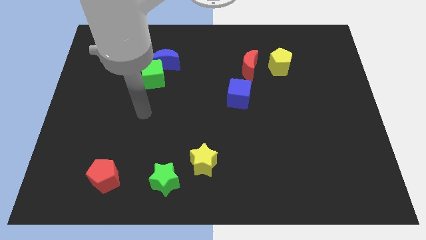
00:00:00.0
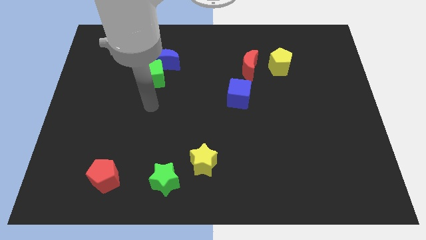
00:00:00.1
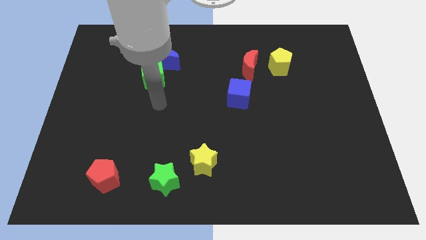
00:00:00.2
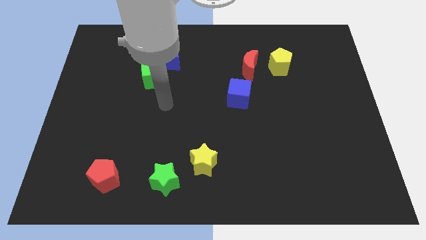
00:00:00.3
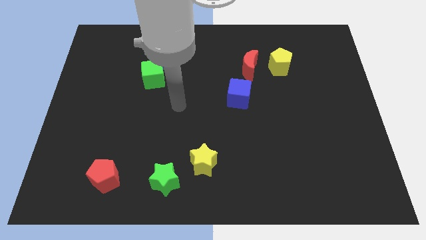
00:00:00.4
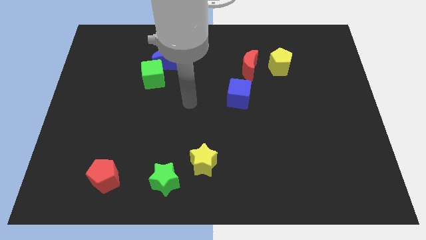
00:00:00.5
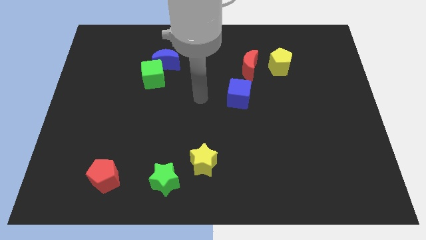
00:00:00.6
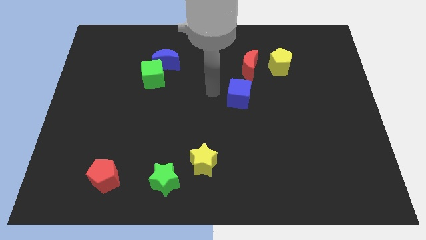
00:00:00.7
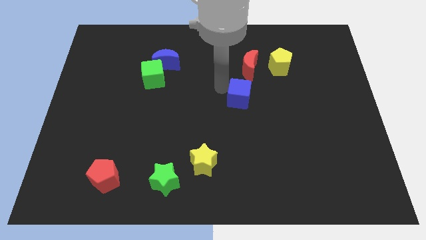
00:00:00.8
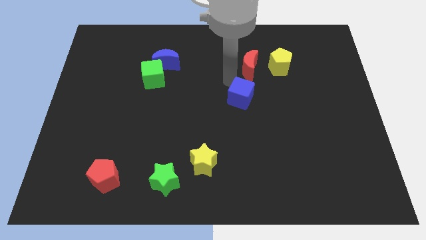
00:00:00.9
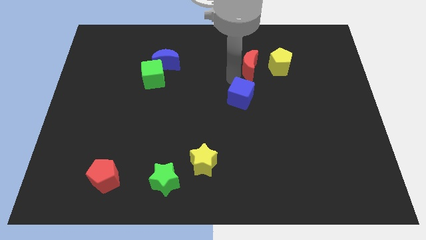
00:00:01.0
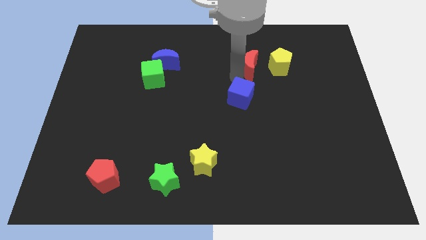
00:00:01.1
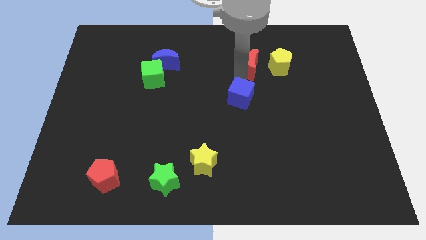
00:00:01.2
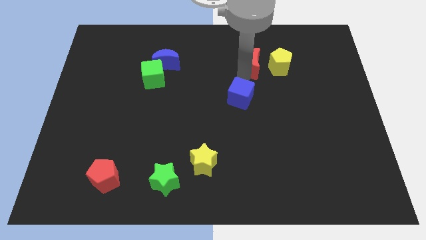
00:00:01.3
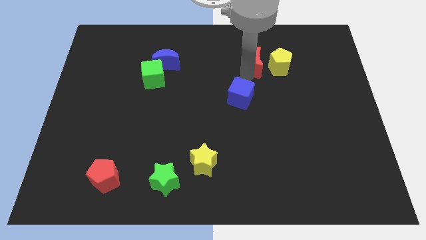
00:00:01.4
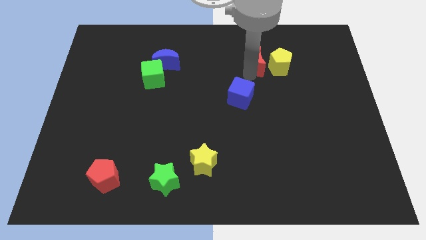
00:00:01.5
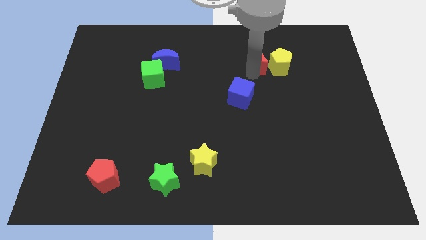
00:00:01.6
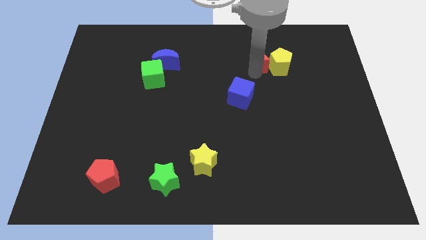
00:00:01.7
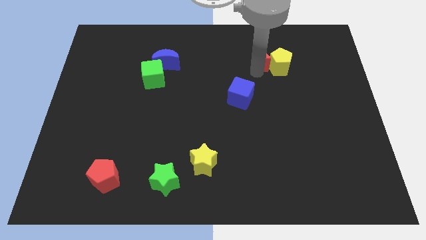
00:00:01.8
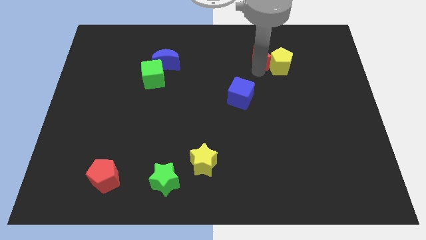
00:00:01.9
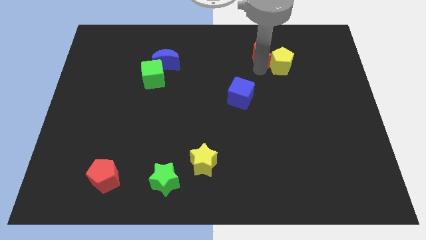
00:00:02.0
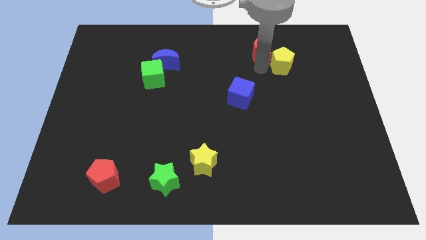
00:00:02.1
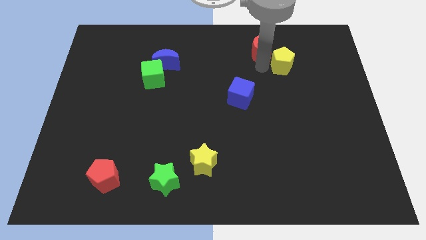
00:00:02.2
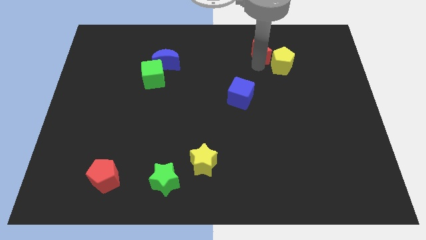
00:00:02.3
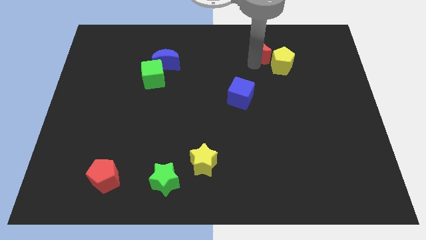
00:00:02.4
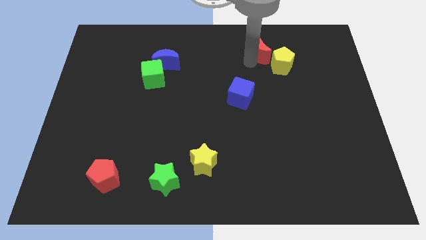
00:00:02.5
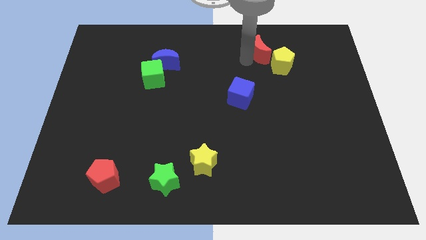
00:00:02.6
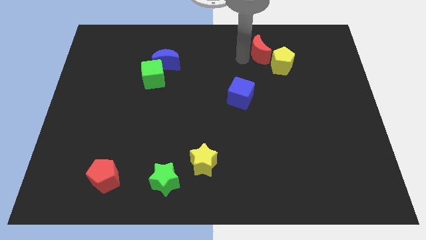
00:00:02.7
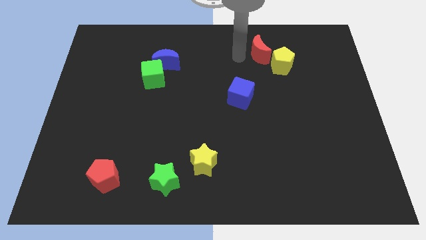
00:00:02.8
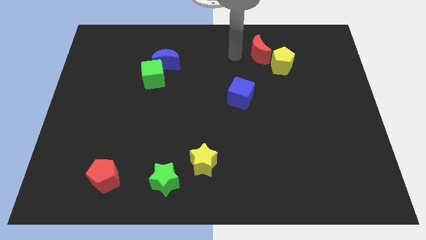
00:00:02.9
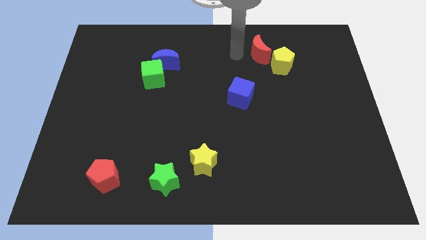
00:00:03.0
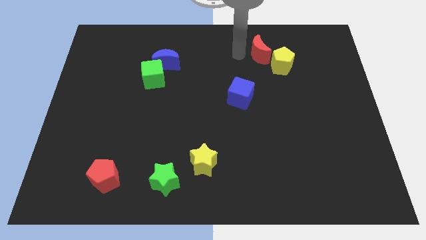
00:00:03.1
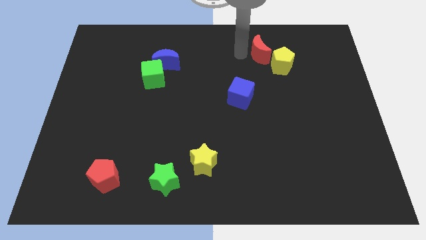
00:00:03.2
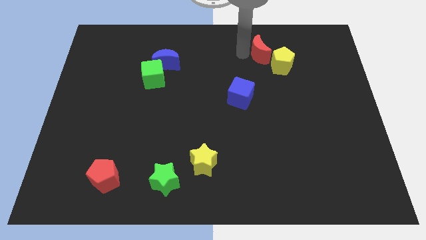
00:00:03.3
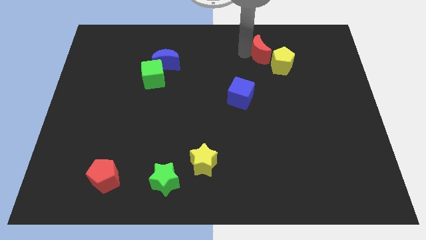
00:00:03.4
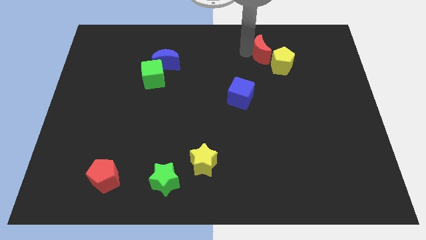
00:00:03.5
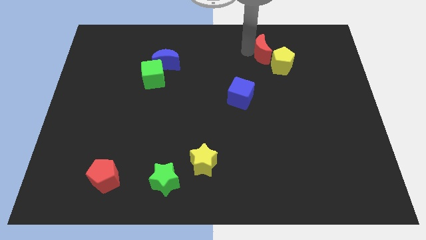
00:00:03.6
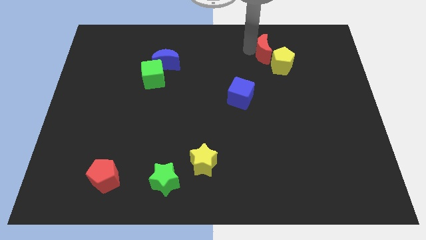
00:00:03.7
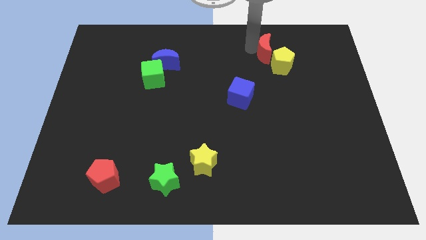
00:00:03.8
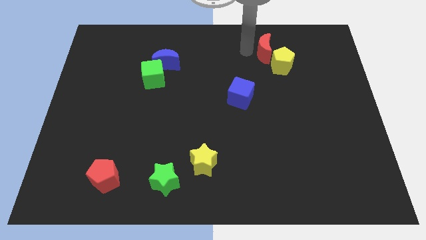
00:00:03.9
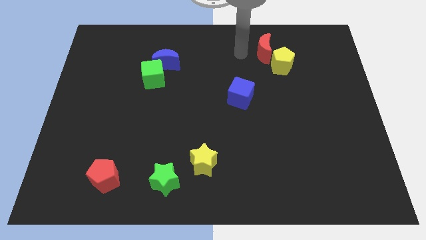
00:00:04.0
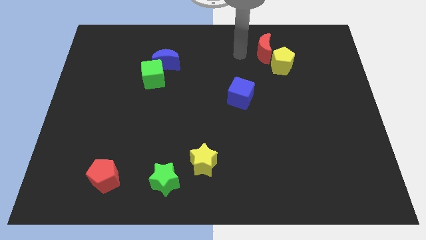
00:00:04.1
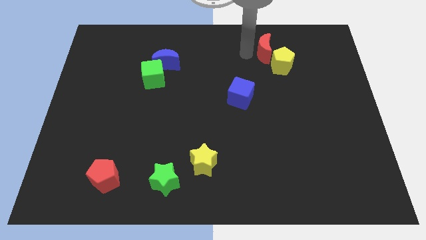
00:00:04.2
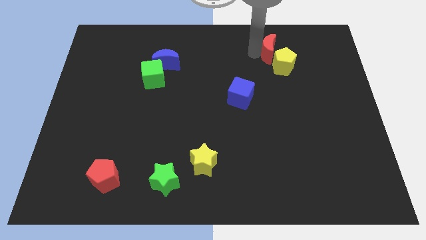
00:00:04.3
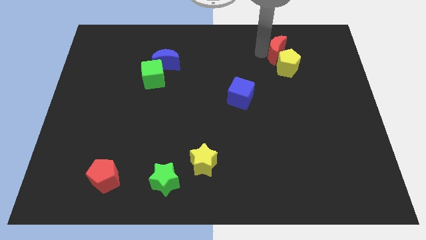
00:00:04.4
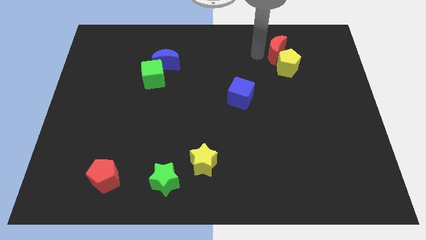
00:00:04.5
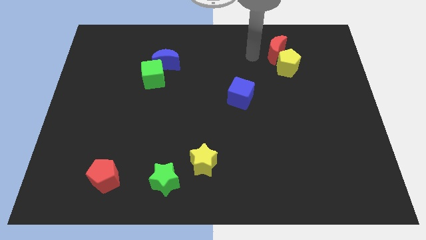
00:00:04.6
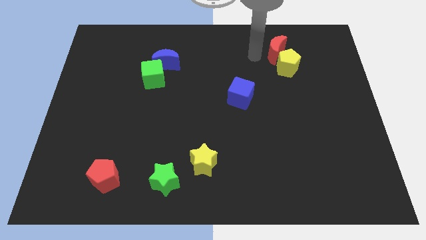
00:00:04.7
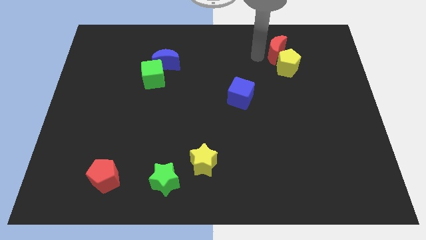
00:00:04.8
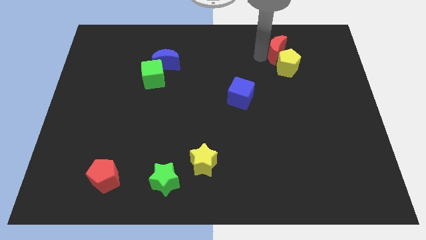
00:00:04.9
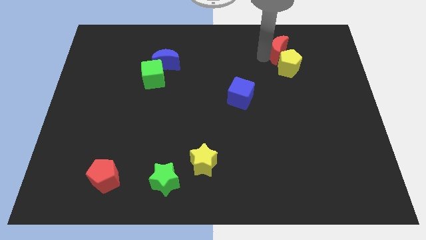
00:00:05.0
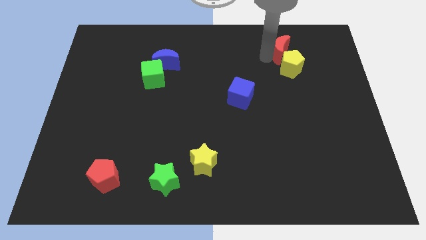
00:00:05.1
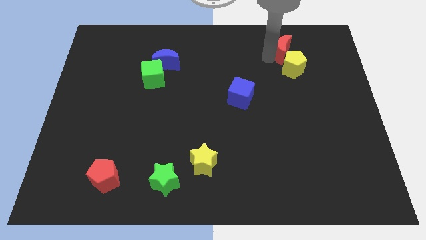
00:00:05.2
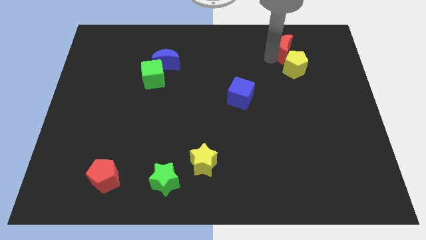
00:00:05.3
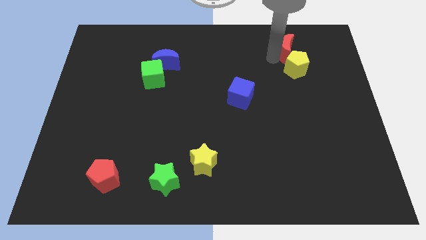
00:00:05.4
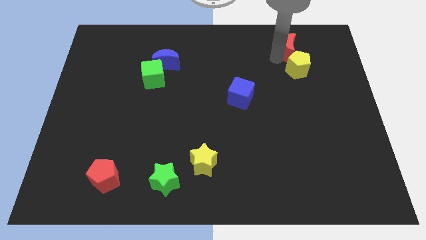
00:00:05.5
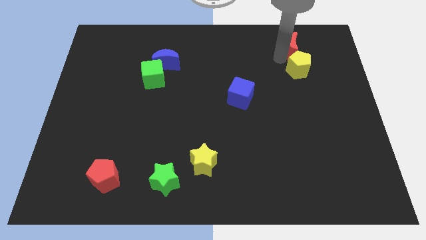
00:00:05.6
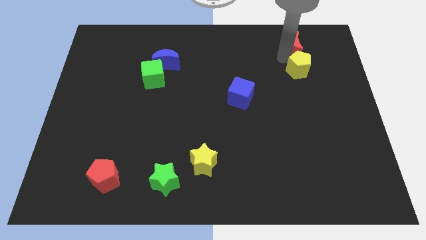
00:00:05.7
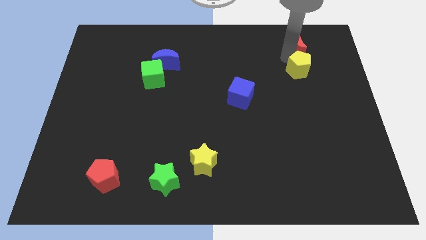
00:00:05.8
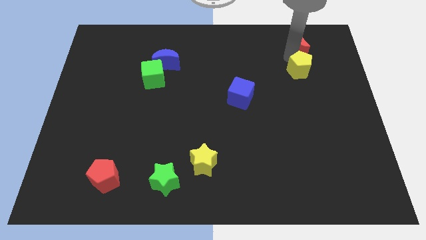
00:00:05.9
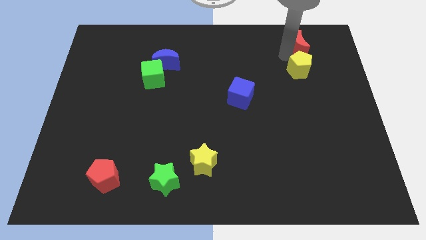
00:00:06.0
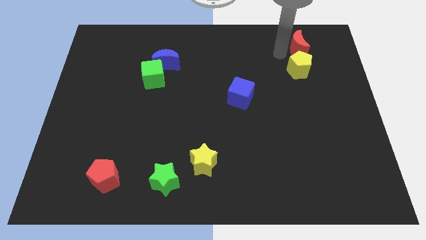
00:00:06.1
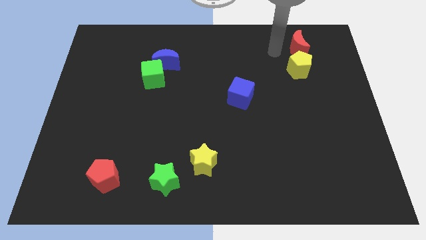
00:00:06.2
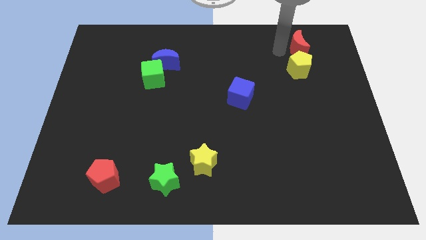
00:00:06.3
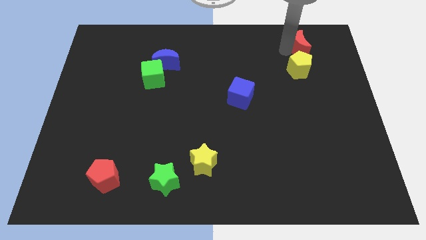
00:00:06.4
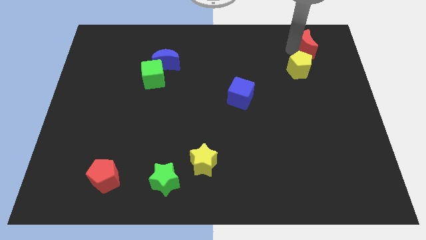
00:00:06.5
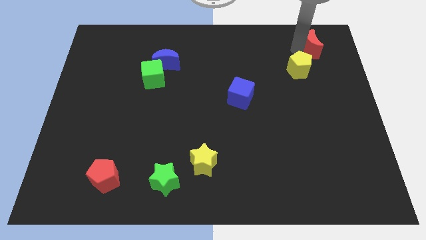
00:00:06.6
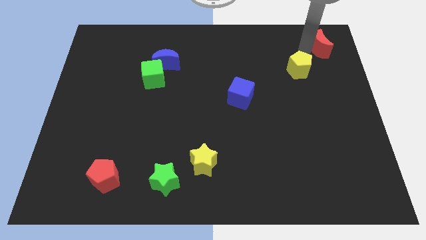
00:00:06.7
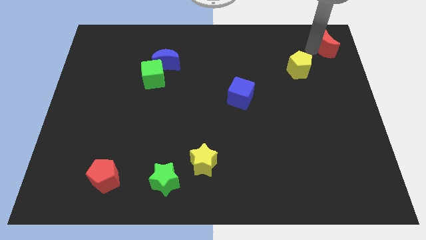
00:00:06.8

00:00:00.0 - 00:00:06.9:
put the red moon to the upper right corner

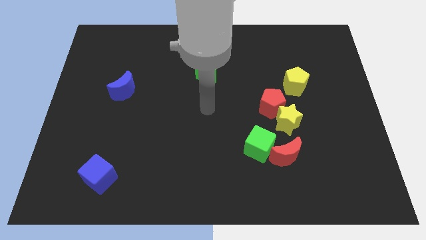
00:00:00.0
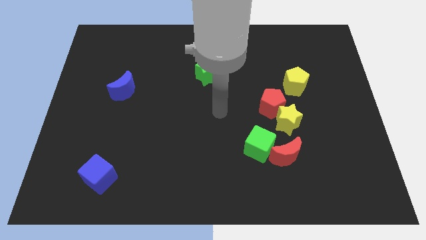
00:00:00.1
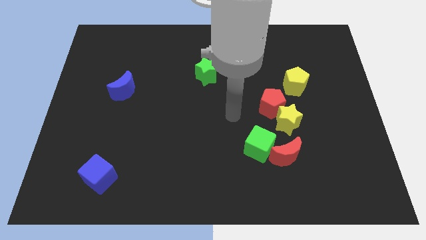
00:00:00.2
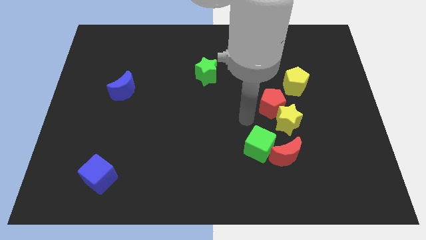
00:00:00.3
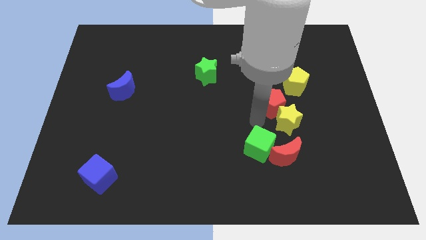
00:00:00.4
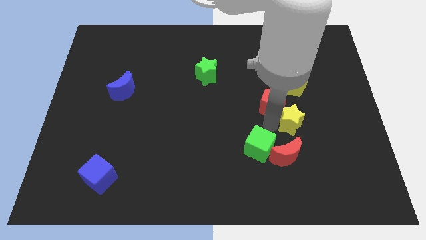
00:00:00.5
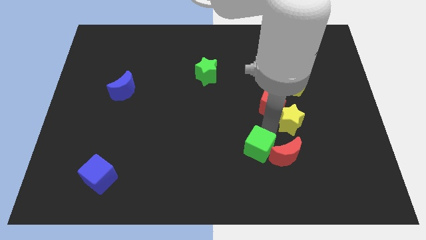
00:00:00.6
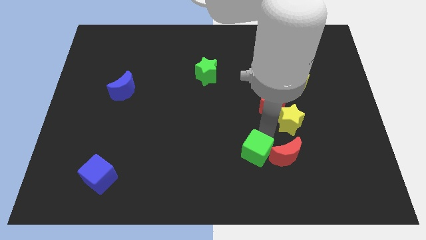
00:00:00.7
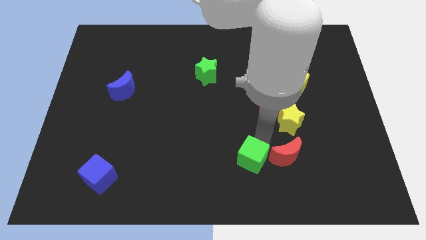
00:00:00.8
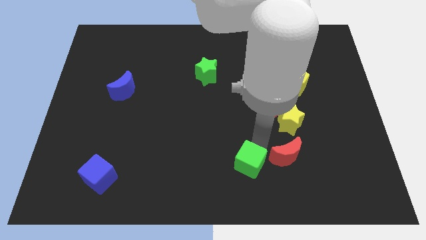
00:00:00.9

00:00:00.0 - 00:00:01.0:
move the green cube to the bottom side
